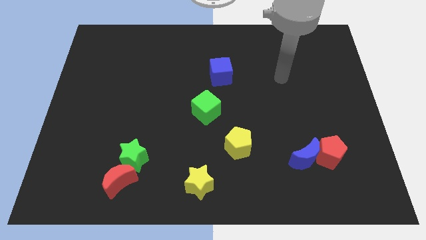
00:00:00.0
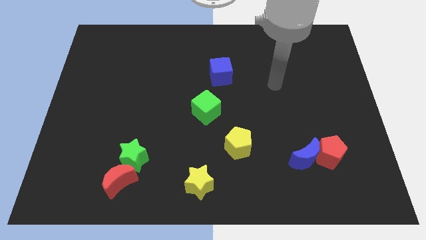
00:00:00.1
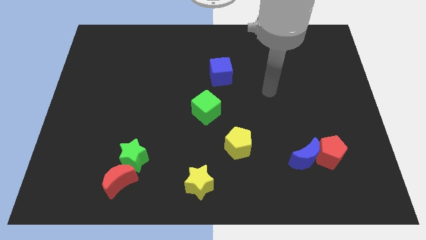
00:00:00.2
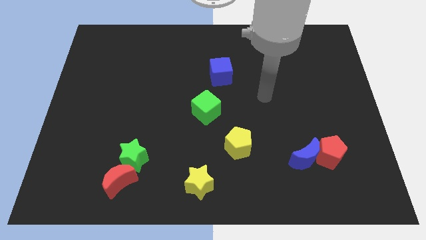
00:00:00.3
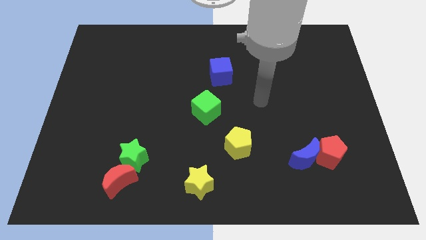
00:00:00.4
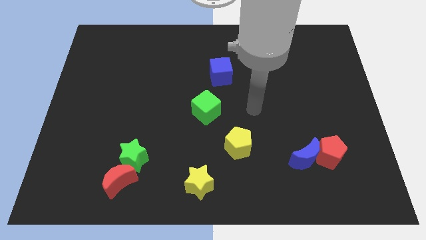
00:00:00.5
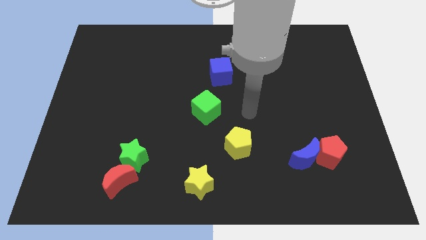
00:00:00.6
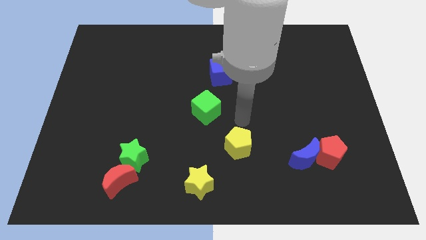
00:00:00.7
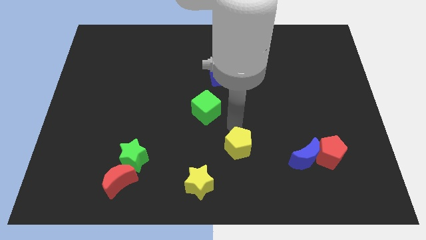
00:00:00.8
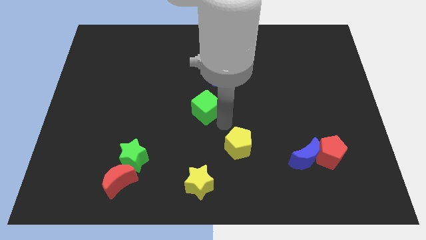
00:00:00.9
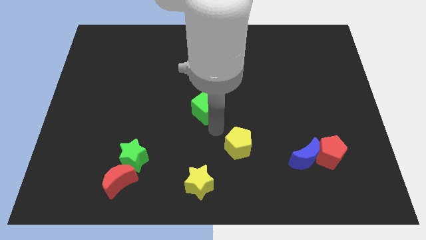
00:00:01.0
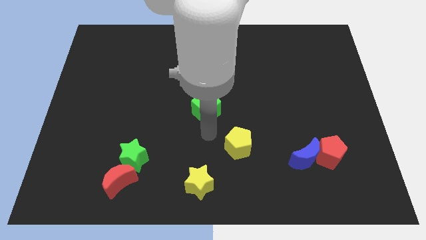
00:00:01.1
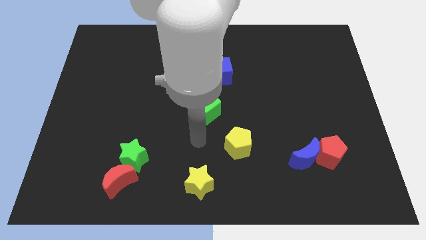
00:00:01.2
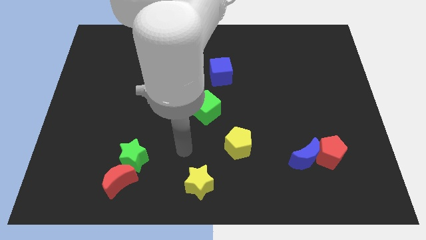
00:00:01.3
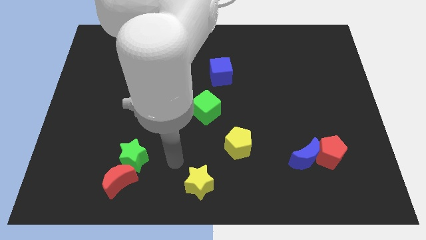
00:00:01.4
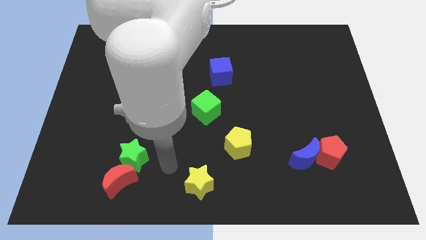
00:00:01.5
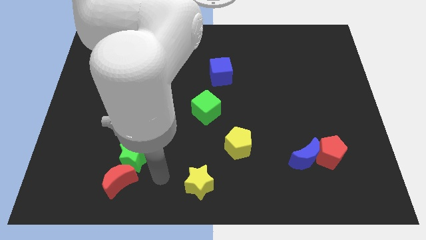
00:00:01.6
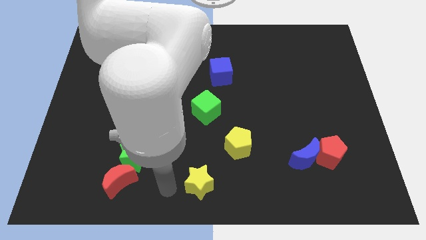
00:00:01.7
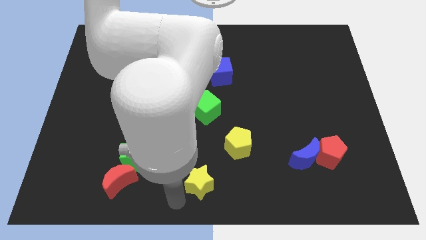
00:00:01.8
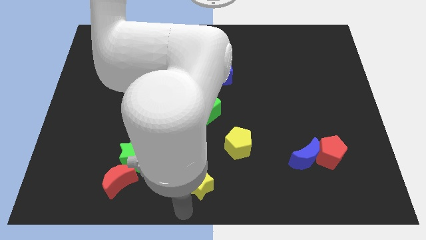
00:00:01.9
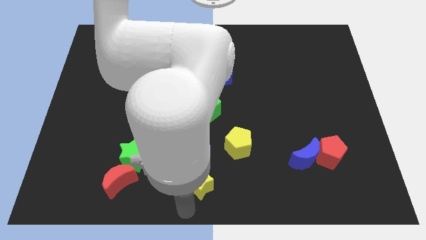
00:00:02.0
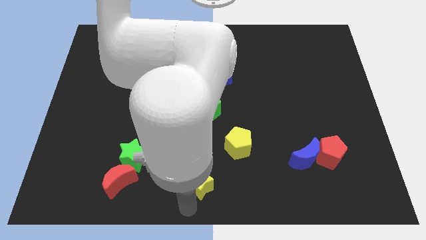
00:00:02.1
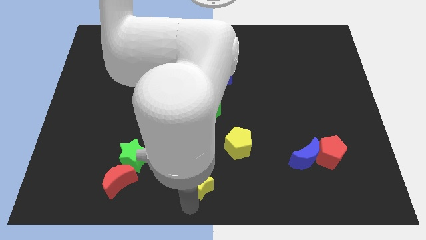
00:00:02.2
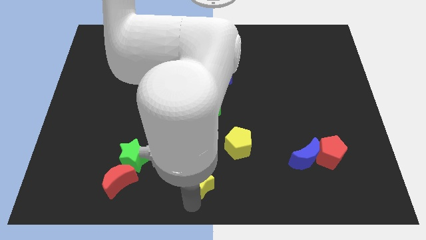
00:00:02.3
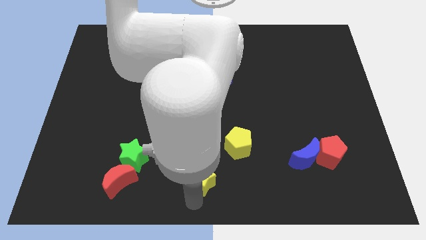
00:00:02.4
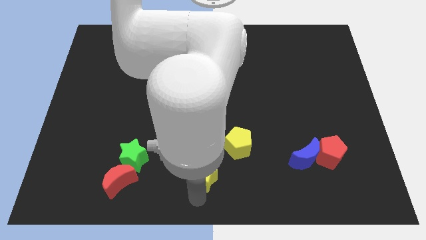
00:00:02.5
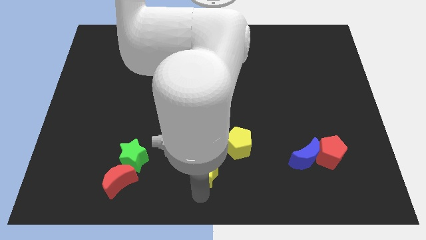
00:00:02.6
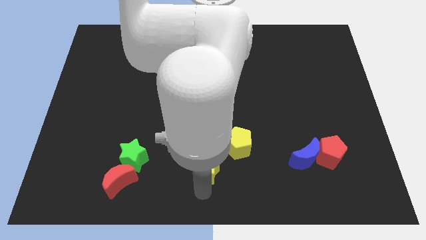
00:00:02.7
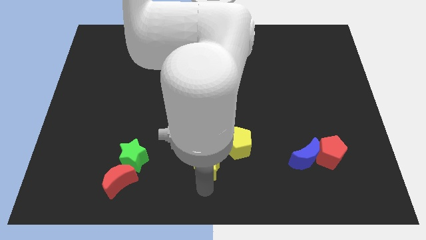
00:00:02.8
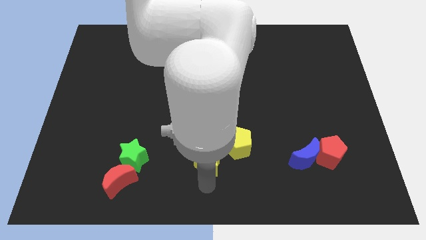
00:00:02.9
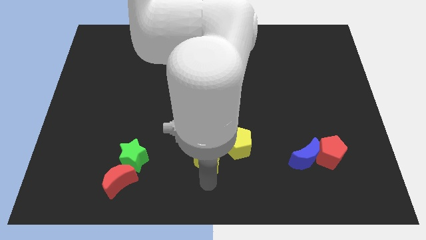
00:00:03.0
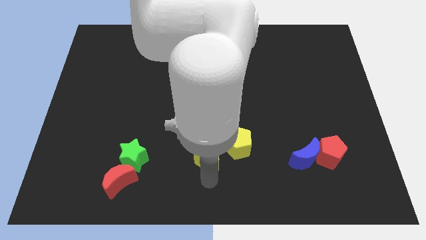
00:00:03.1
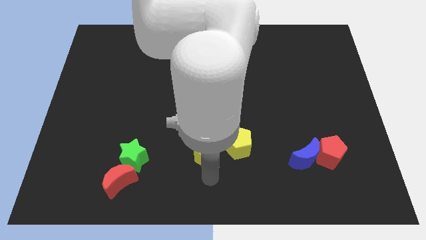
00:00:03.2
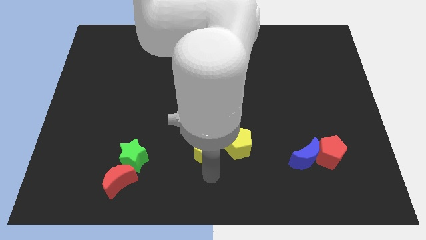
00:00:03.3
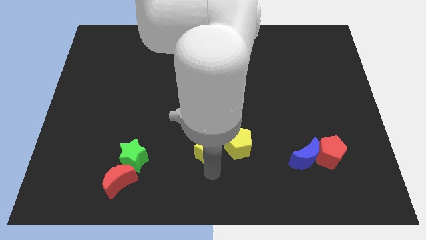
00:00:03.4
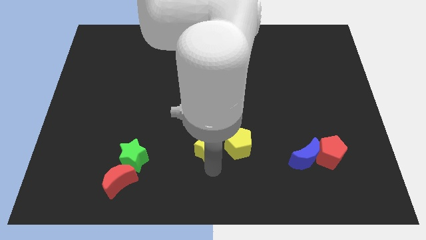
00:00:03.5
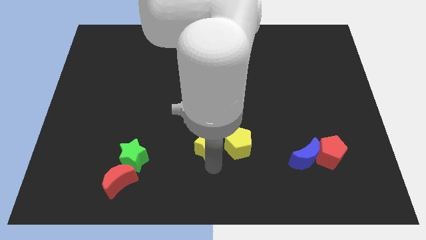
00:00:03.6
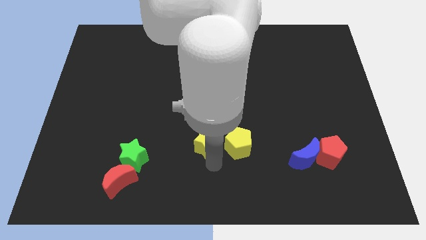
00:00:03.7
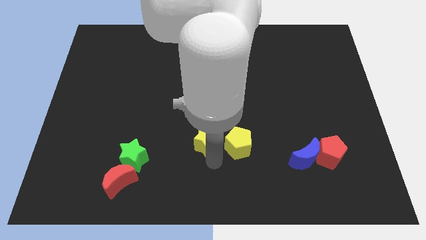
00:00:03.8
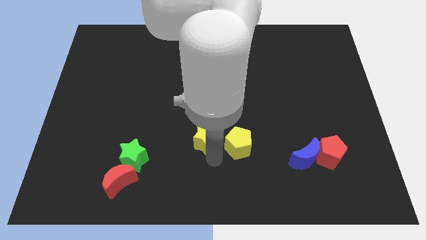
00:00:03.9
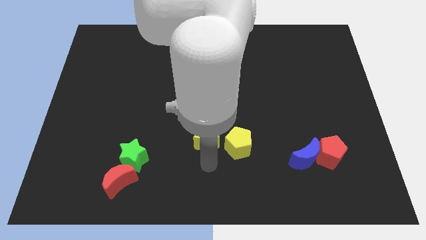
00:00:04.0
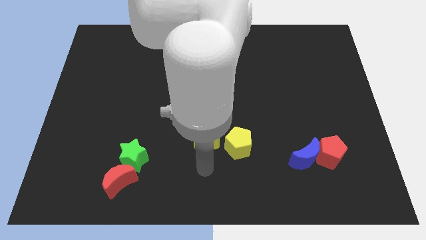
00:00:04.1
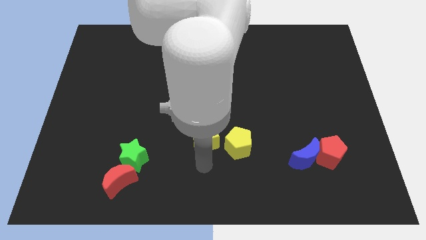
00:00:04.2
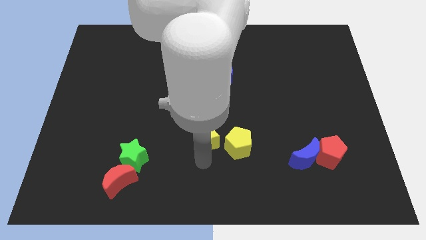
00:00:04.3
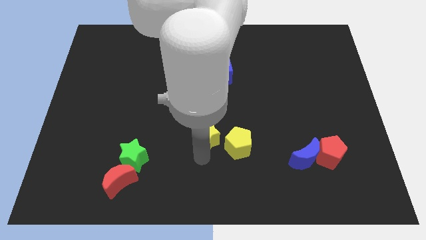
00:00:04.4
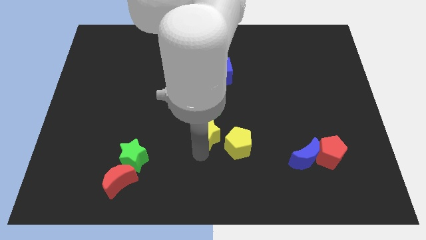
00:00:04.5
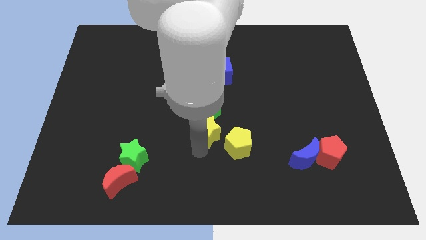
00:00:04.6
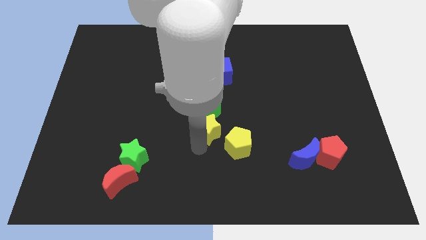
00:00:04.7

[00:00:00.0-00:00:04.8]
push the yellow star to the green cube

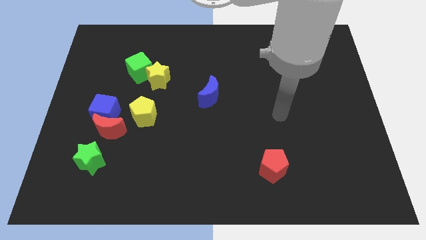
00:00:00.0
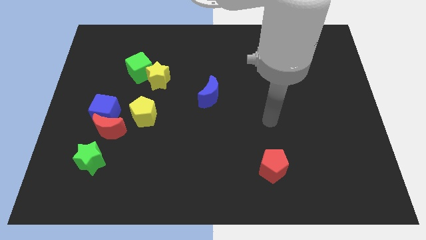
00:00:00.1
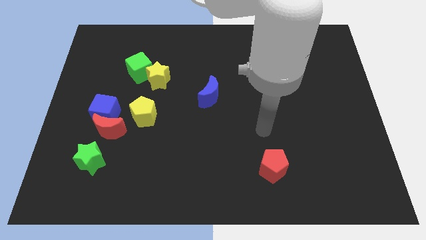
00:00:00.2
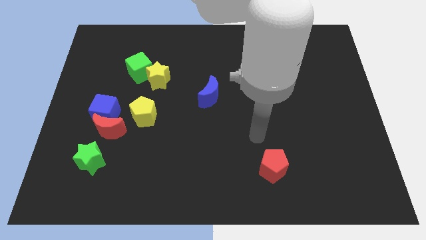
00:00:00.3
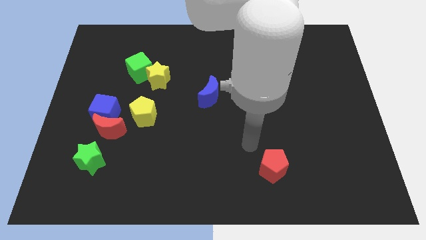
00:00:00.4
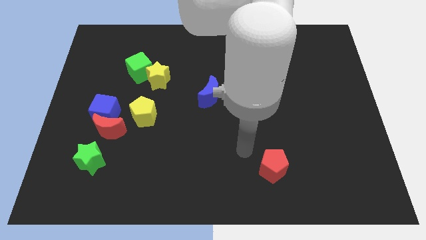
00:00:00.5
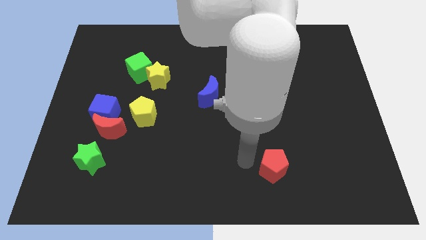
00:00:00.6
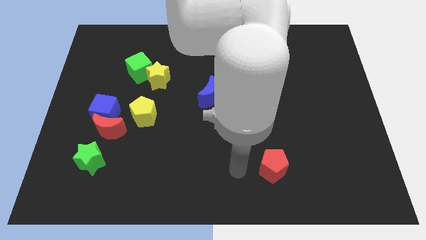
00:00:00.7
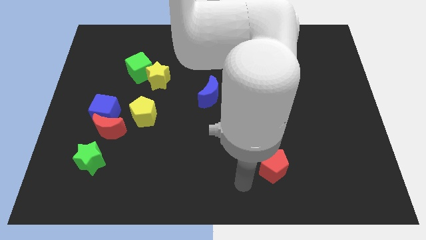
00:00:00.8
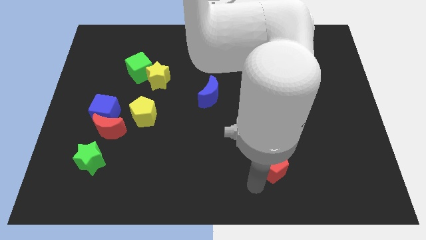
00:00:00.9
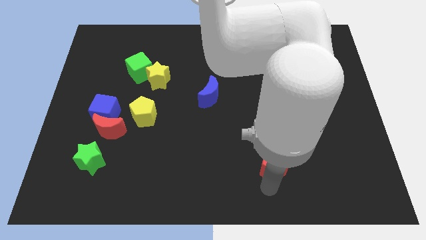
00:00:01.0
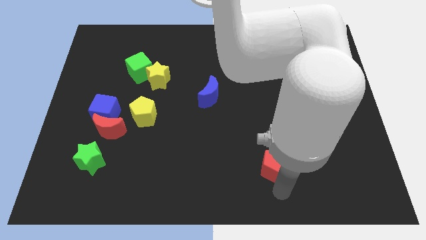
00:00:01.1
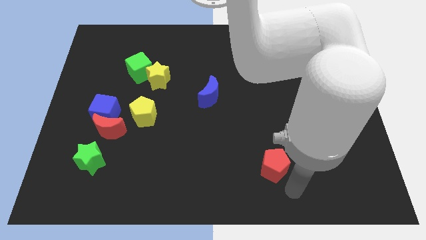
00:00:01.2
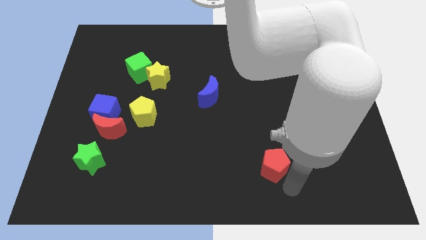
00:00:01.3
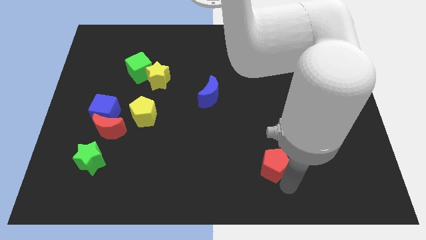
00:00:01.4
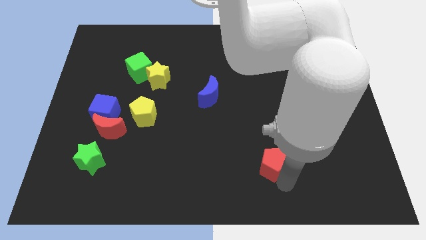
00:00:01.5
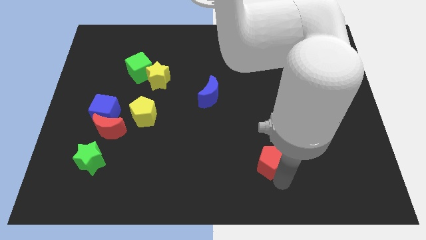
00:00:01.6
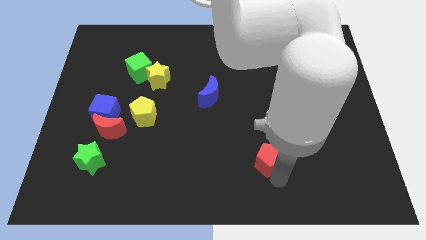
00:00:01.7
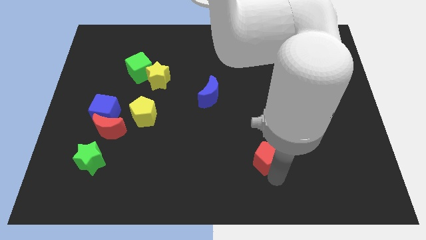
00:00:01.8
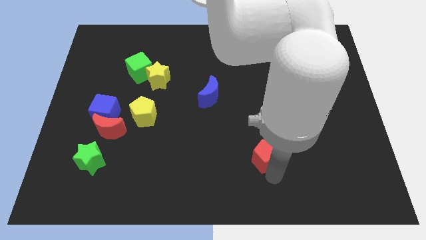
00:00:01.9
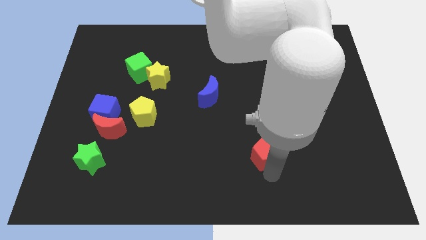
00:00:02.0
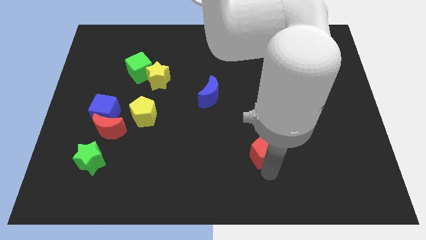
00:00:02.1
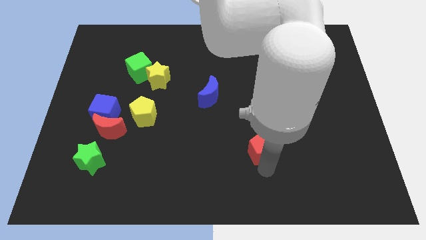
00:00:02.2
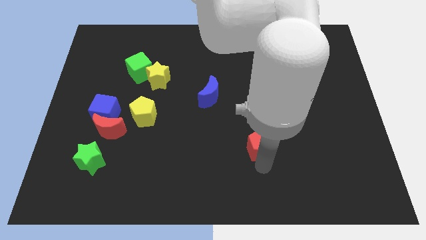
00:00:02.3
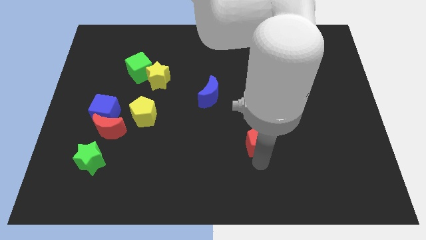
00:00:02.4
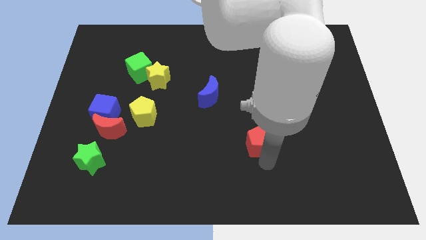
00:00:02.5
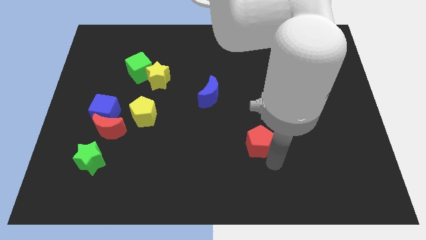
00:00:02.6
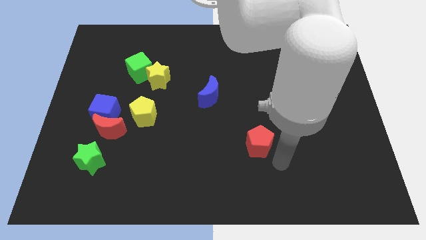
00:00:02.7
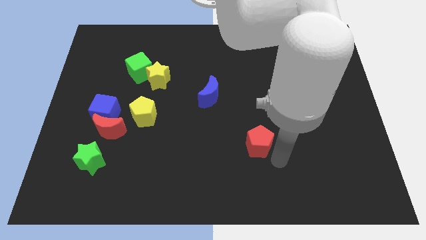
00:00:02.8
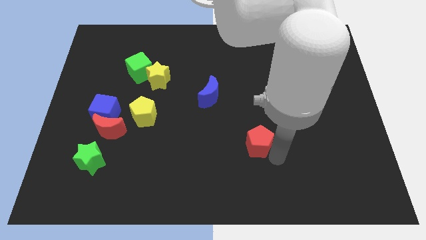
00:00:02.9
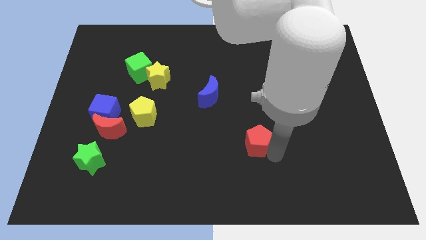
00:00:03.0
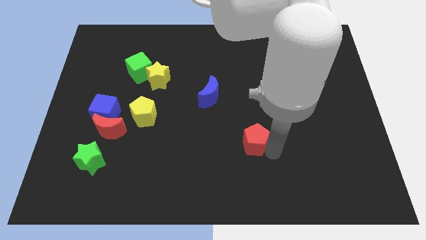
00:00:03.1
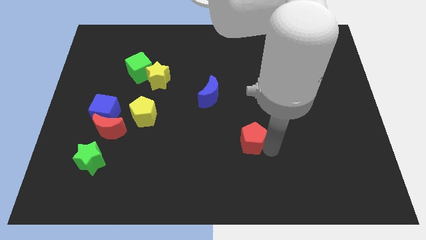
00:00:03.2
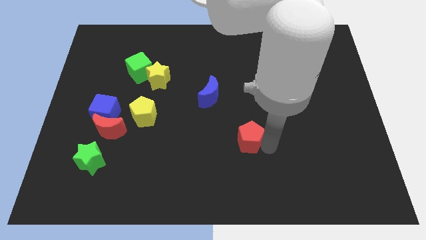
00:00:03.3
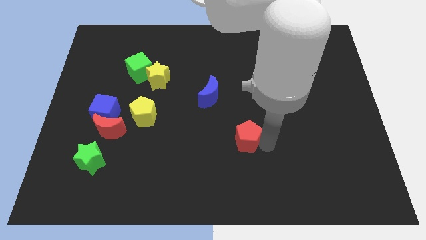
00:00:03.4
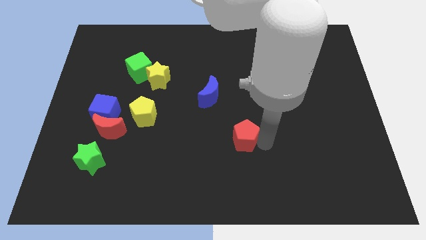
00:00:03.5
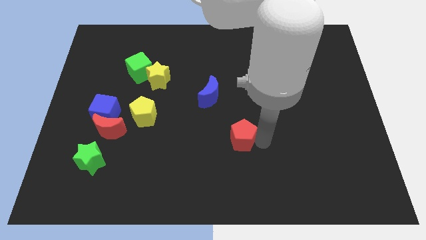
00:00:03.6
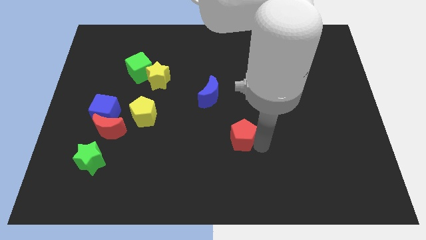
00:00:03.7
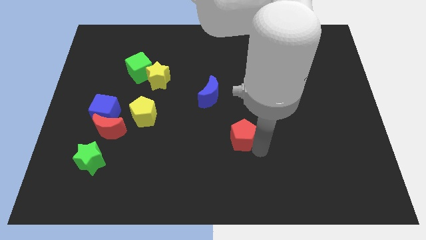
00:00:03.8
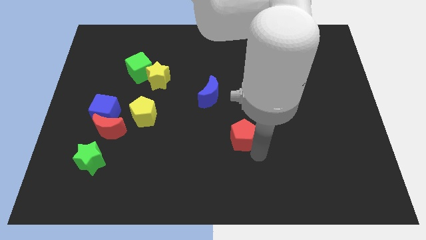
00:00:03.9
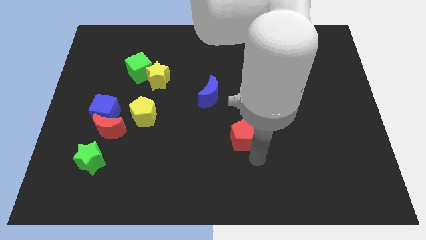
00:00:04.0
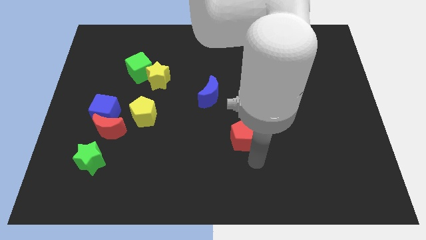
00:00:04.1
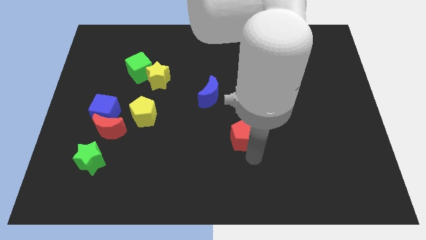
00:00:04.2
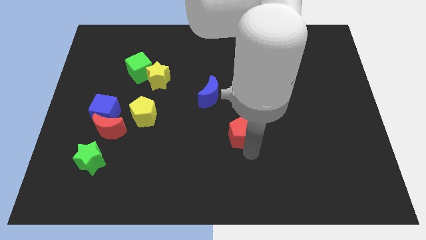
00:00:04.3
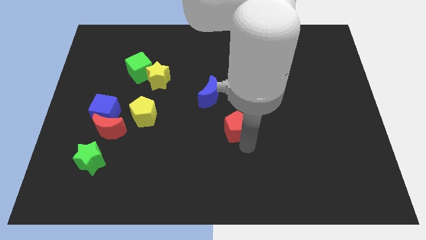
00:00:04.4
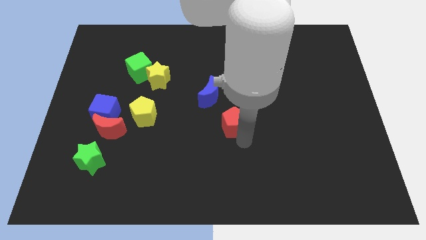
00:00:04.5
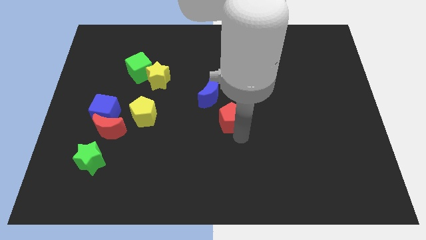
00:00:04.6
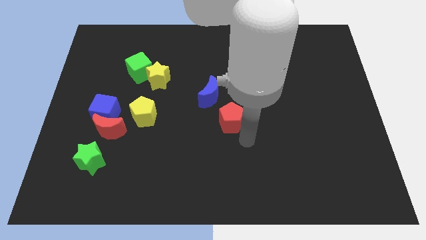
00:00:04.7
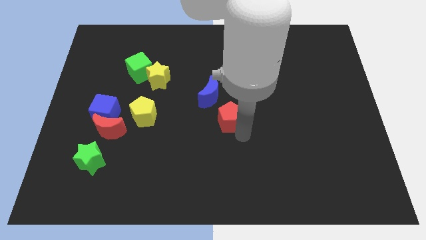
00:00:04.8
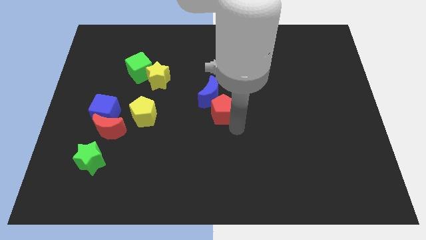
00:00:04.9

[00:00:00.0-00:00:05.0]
put the red pentagon close to the blue moon
